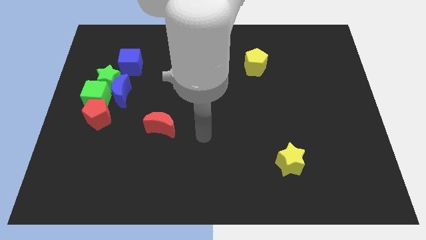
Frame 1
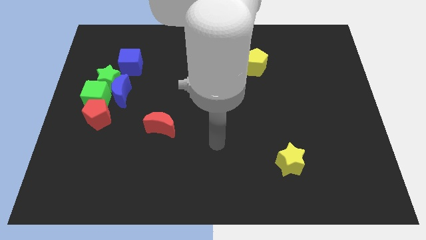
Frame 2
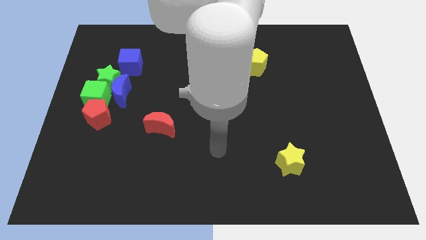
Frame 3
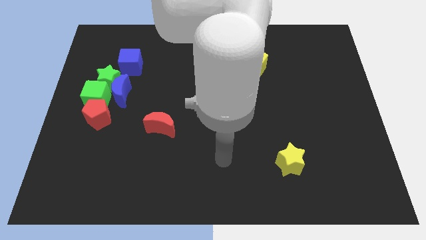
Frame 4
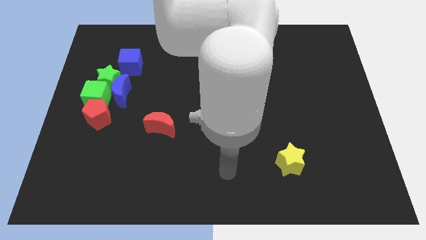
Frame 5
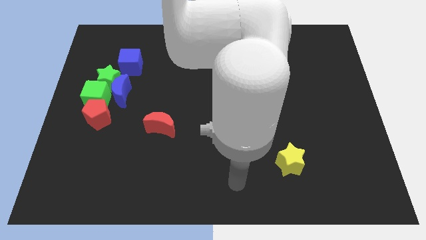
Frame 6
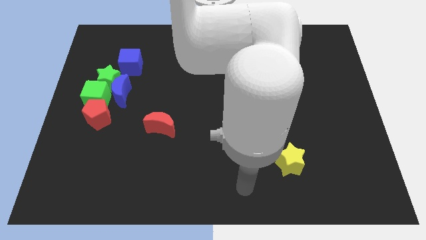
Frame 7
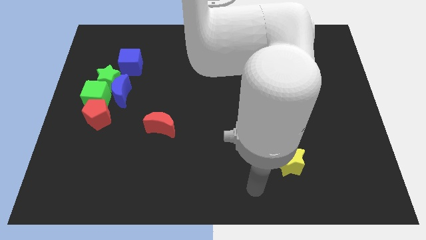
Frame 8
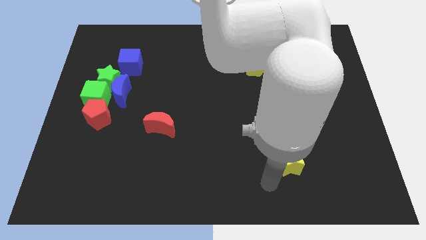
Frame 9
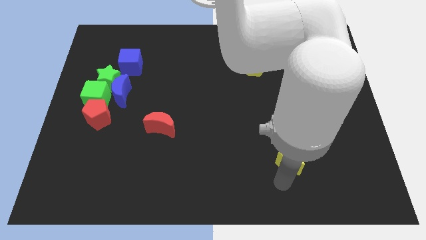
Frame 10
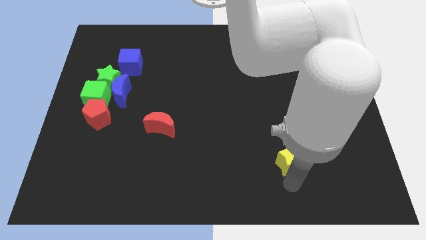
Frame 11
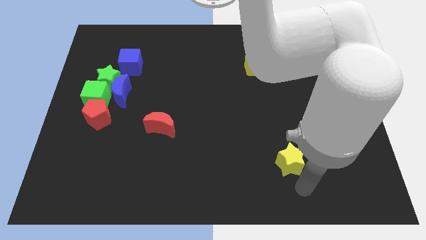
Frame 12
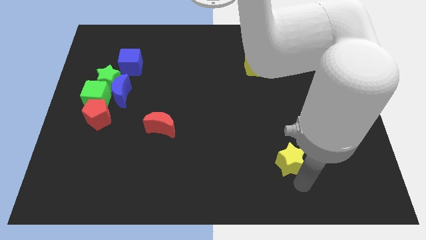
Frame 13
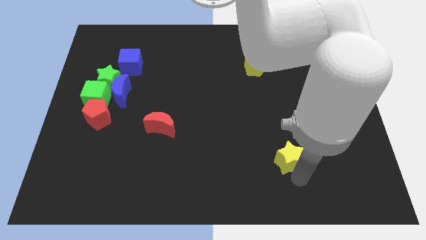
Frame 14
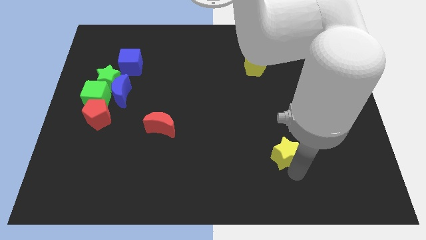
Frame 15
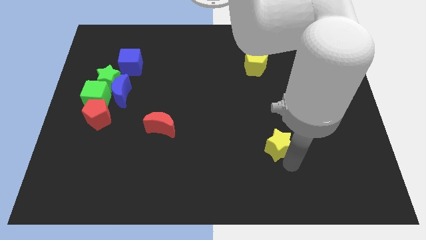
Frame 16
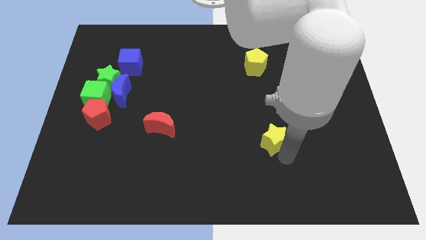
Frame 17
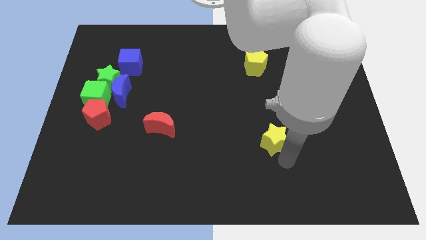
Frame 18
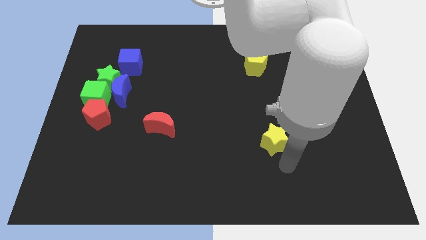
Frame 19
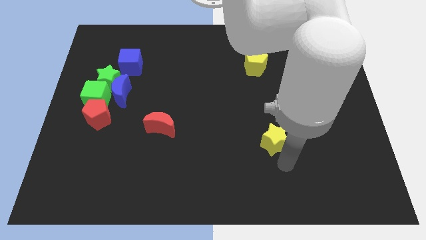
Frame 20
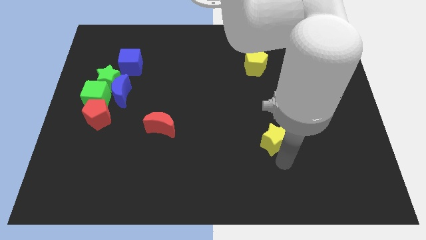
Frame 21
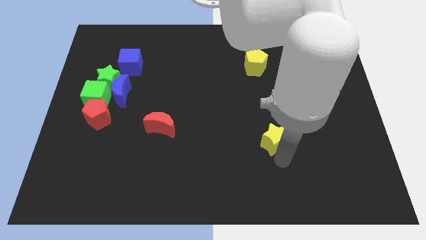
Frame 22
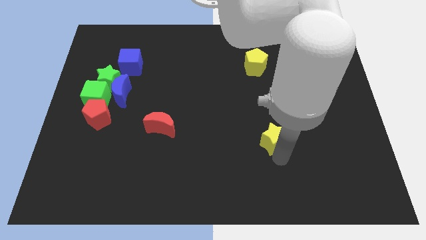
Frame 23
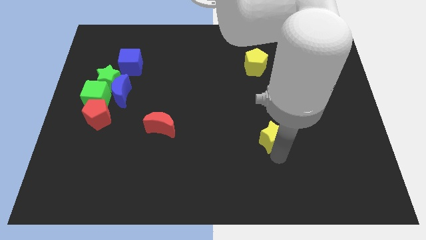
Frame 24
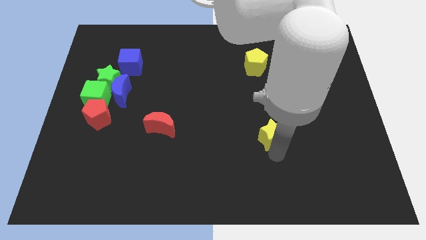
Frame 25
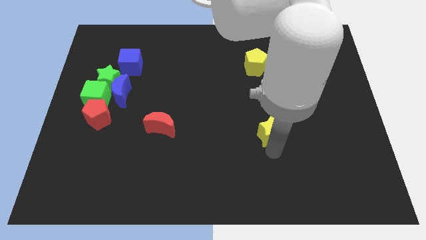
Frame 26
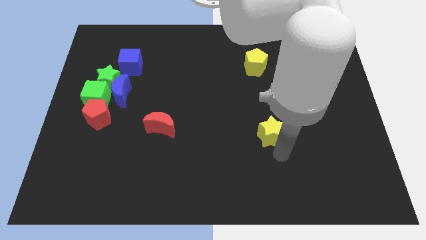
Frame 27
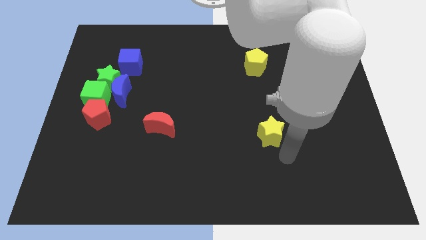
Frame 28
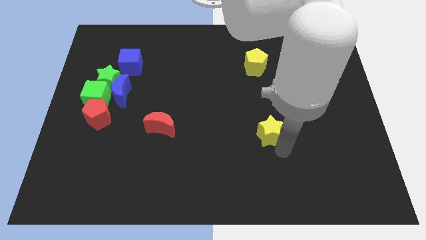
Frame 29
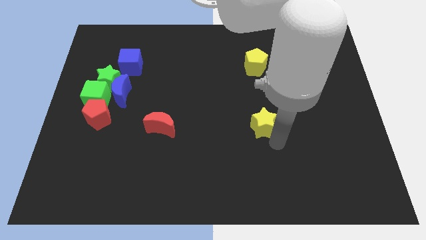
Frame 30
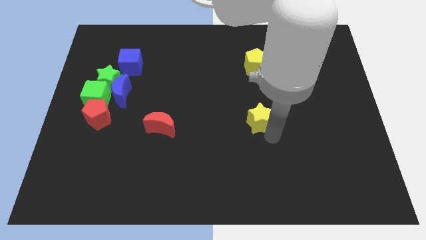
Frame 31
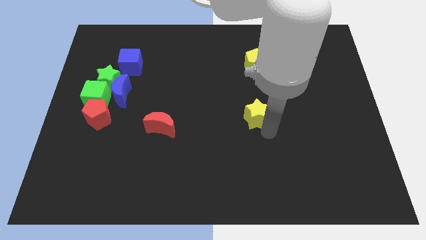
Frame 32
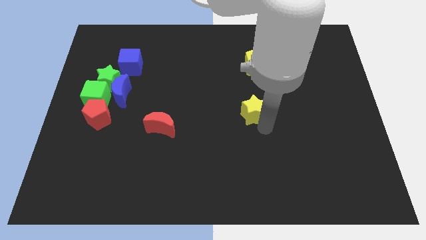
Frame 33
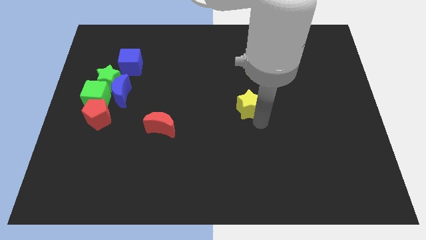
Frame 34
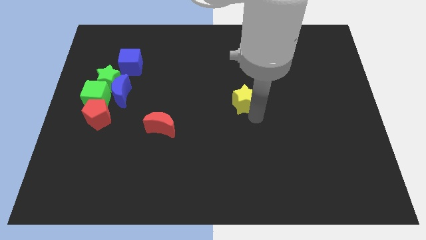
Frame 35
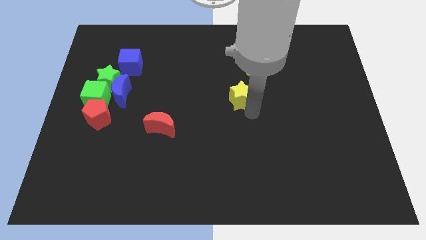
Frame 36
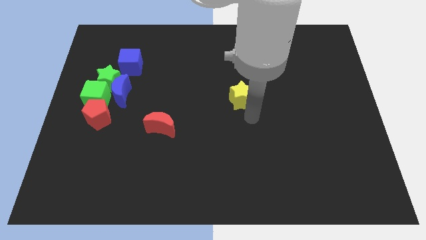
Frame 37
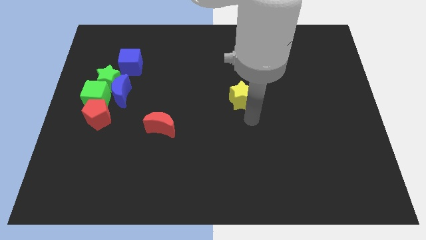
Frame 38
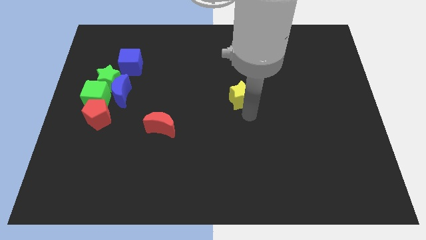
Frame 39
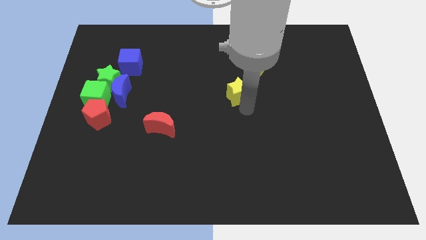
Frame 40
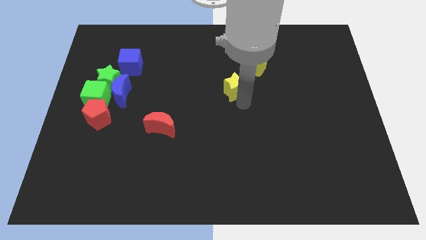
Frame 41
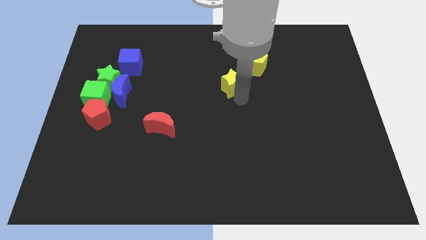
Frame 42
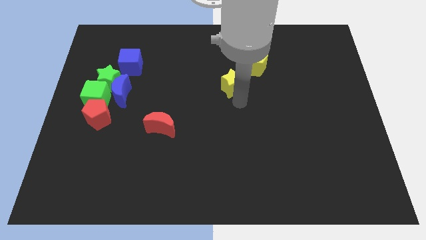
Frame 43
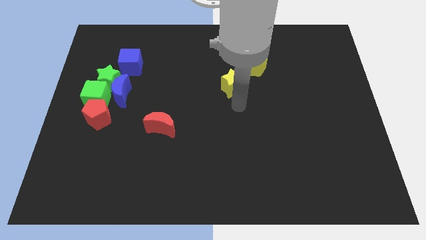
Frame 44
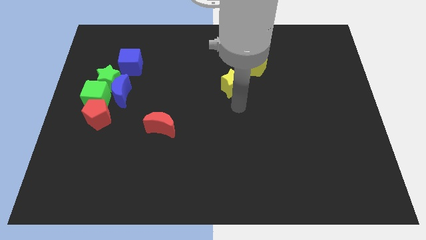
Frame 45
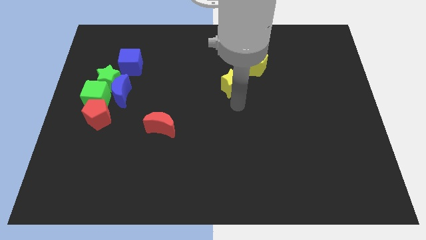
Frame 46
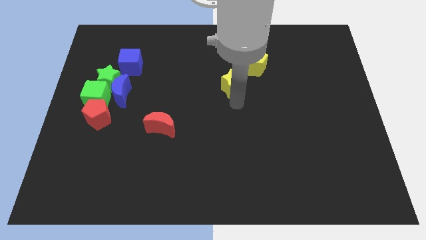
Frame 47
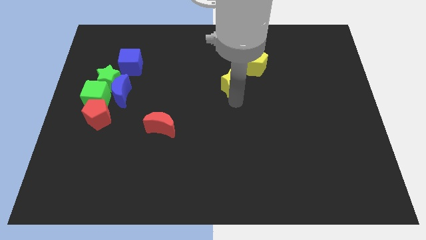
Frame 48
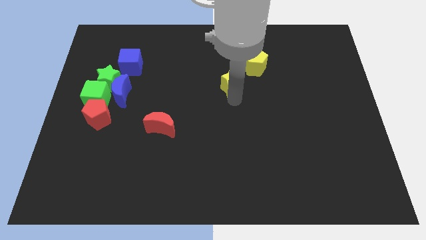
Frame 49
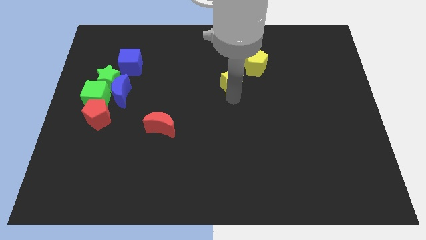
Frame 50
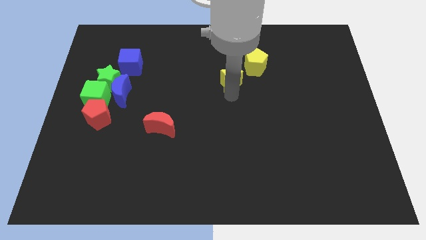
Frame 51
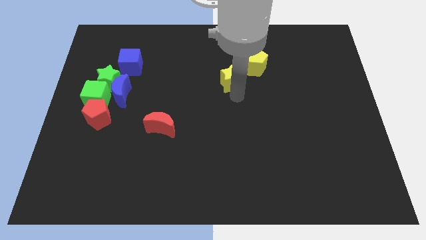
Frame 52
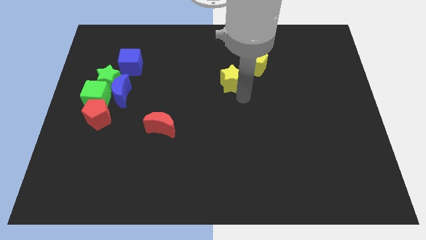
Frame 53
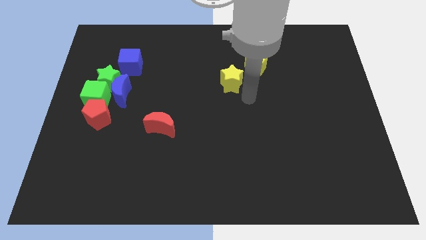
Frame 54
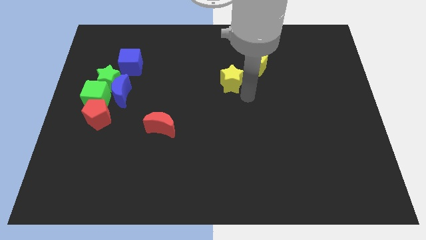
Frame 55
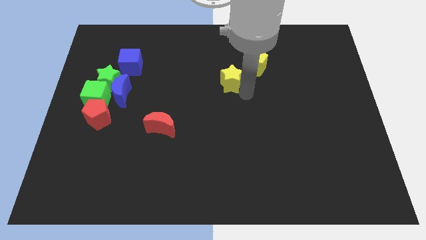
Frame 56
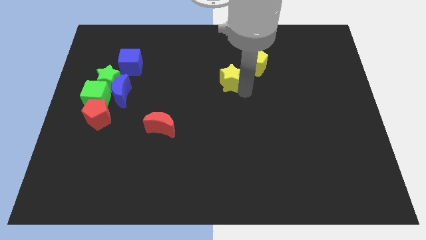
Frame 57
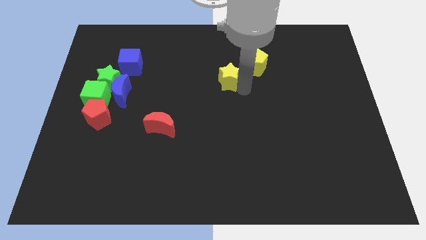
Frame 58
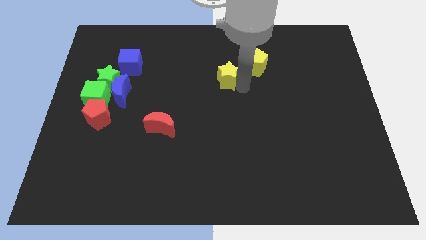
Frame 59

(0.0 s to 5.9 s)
put the yellow star to the left side of the yellow pentagon

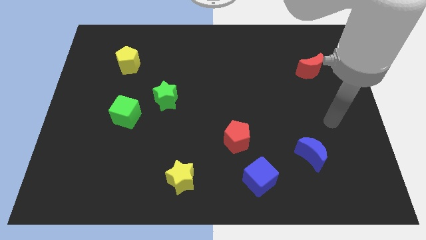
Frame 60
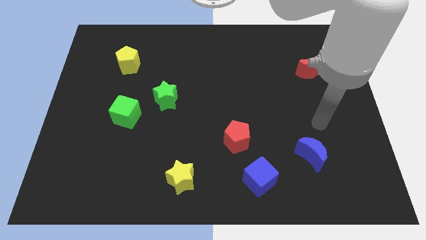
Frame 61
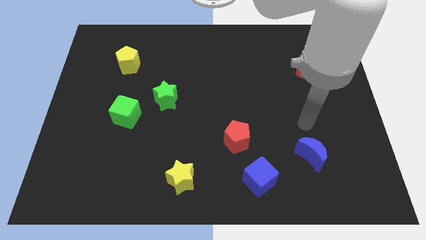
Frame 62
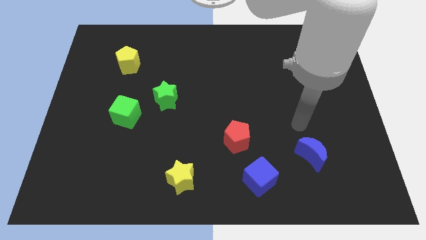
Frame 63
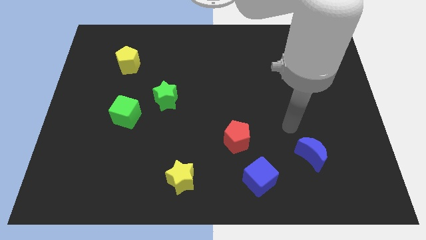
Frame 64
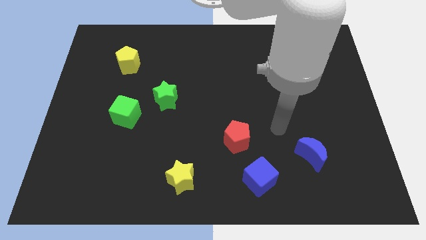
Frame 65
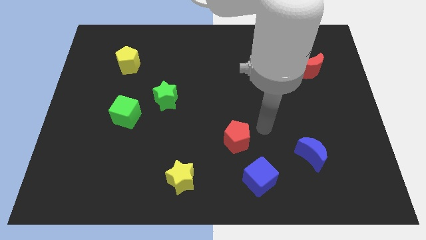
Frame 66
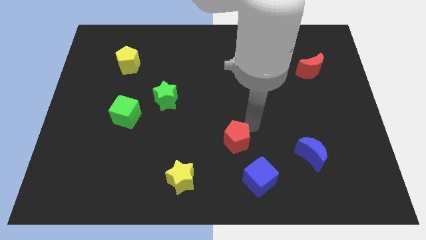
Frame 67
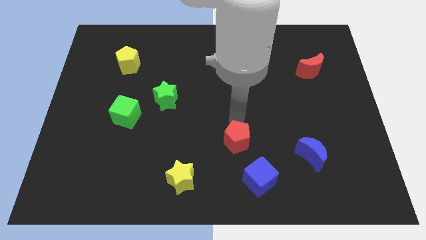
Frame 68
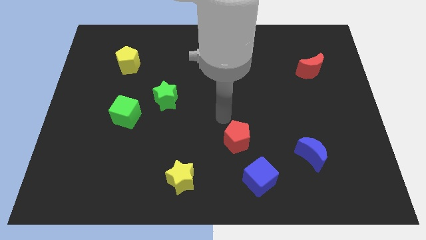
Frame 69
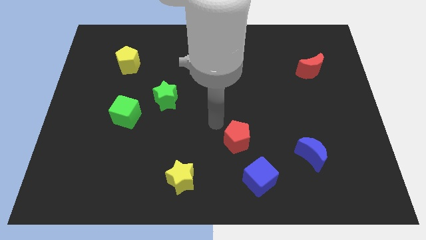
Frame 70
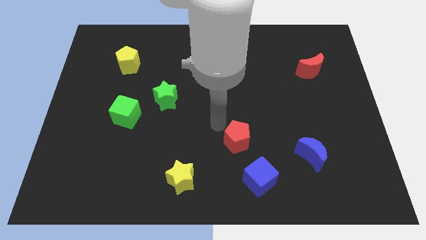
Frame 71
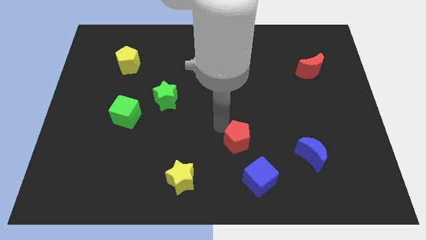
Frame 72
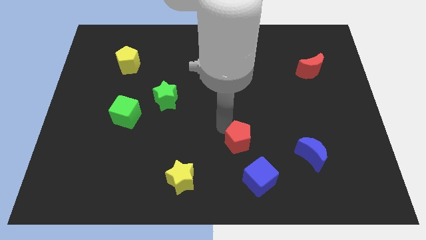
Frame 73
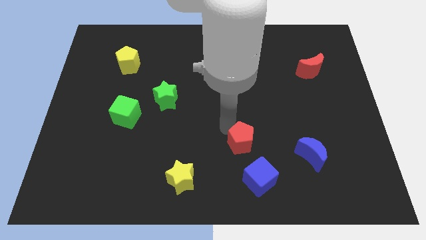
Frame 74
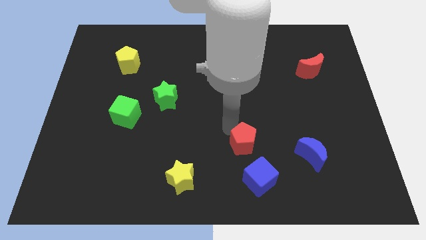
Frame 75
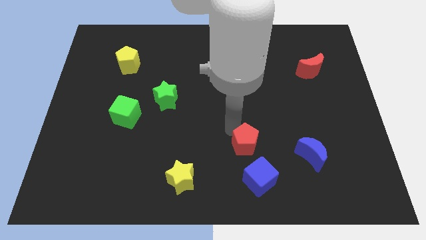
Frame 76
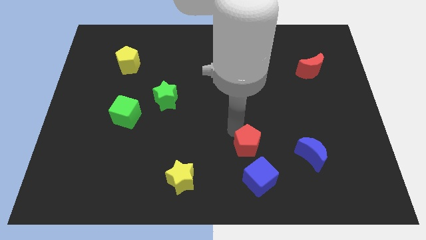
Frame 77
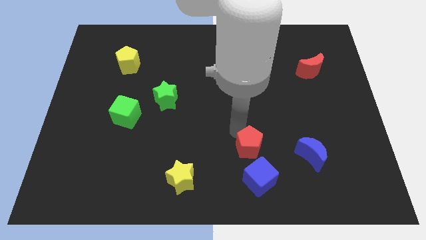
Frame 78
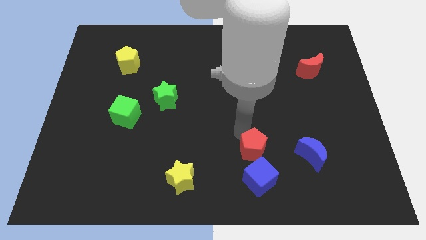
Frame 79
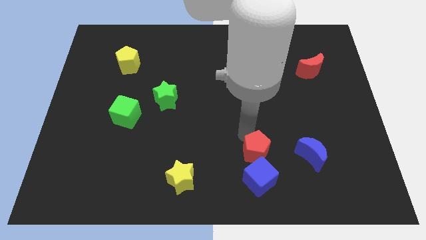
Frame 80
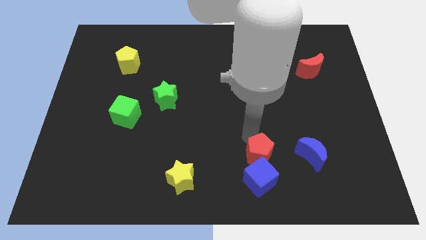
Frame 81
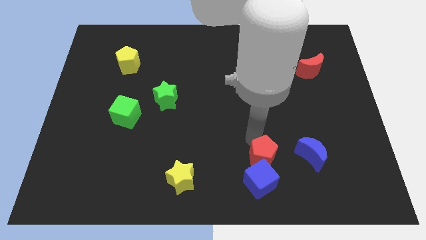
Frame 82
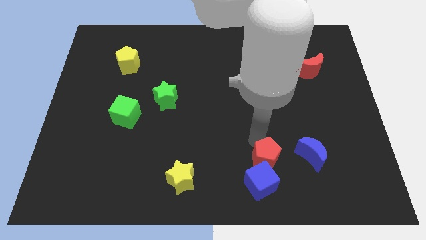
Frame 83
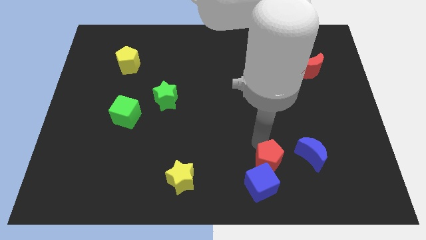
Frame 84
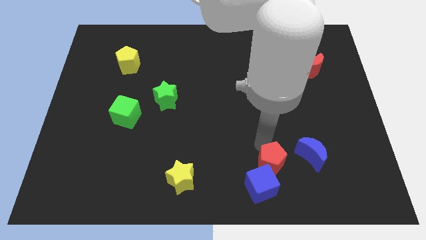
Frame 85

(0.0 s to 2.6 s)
slide the red pentagon to the bottom left of the blue moon
